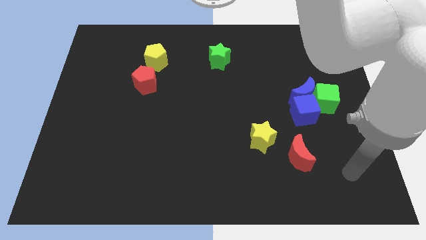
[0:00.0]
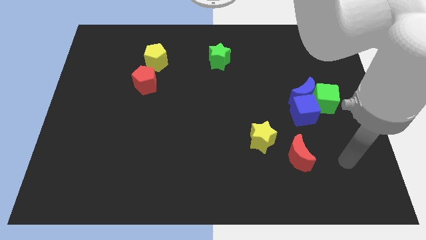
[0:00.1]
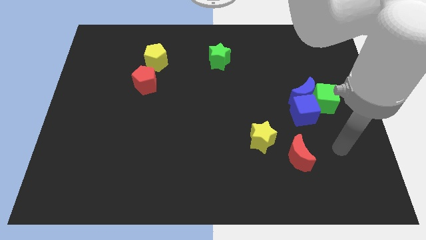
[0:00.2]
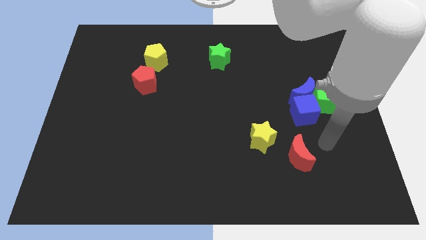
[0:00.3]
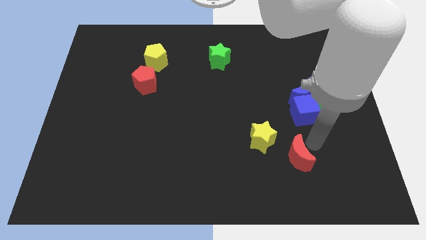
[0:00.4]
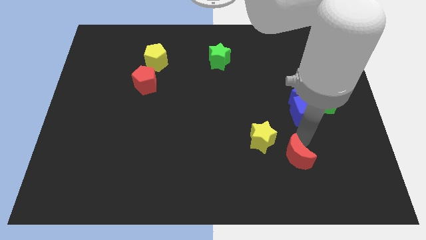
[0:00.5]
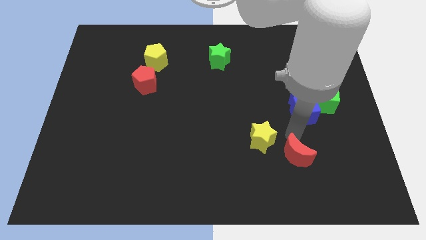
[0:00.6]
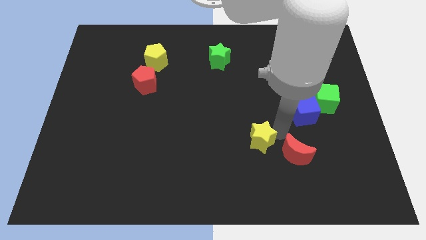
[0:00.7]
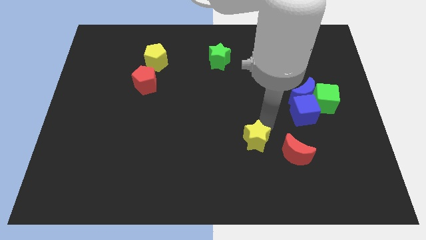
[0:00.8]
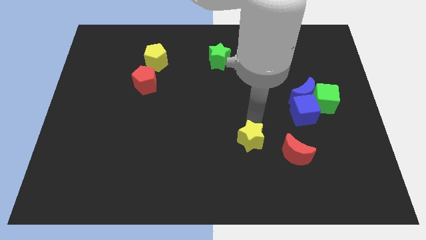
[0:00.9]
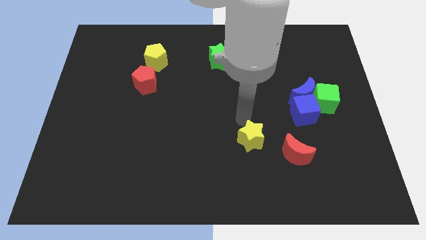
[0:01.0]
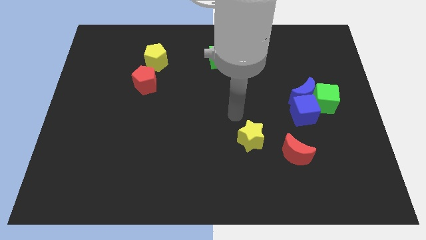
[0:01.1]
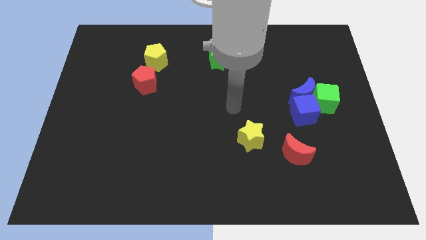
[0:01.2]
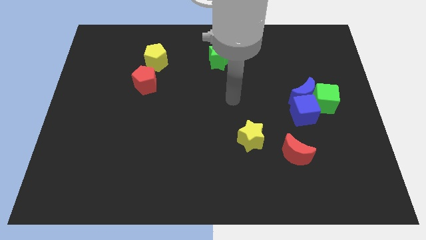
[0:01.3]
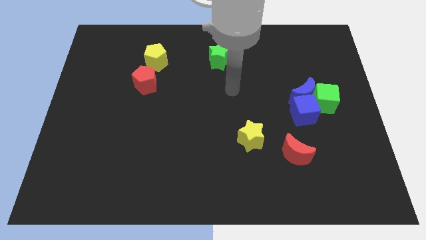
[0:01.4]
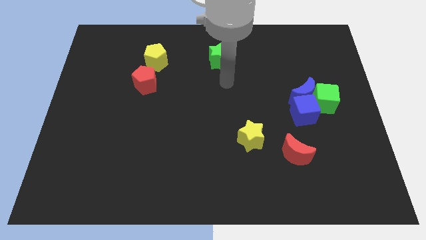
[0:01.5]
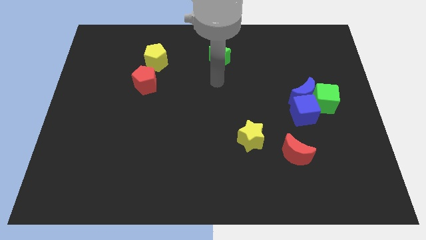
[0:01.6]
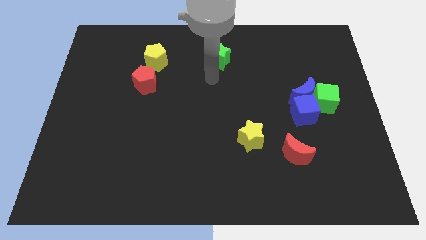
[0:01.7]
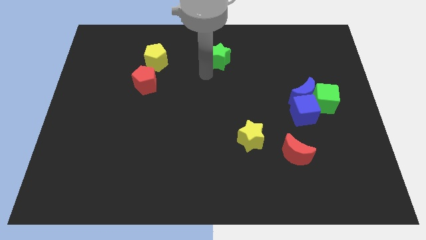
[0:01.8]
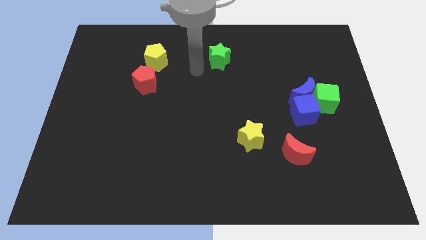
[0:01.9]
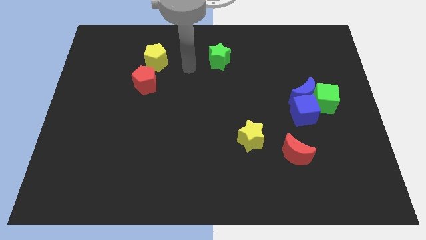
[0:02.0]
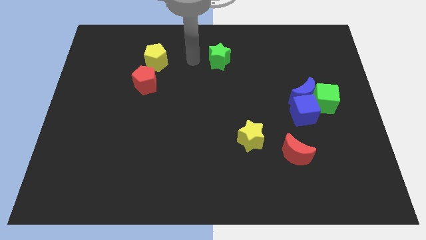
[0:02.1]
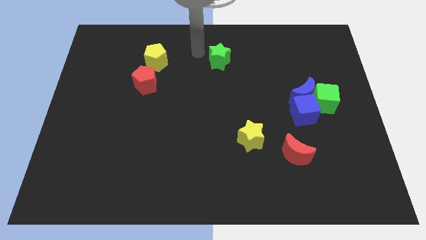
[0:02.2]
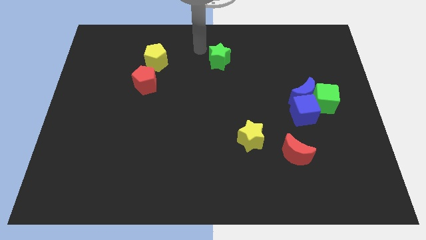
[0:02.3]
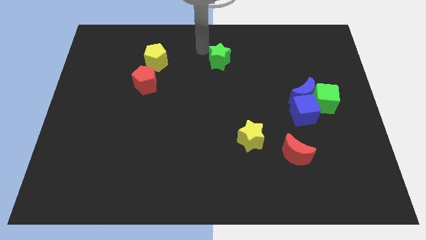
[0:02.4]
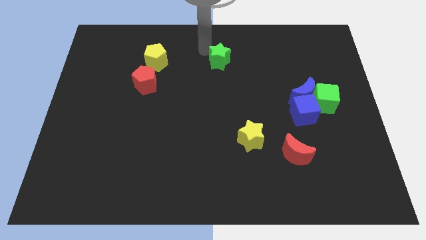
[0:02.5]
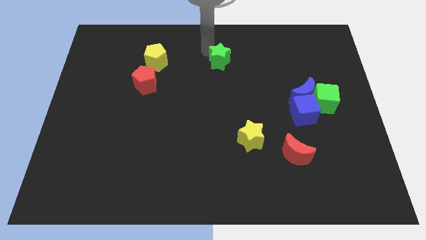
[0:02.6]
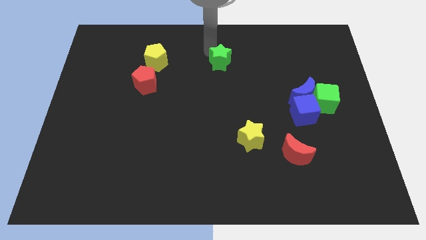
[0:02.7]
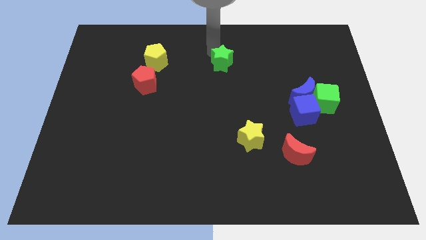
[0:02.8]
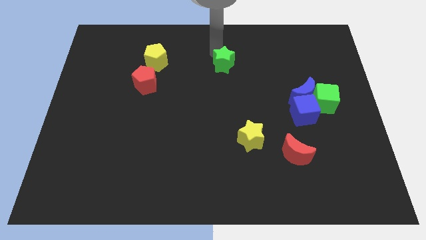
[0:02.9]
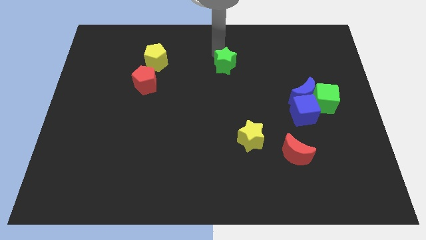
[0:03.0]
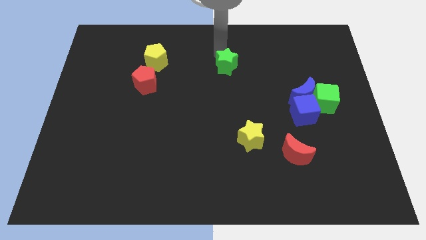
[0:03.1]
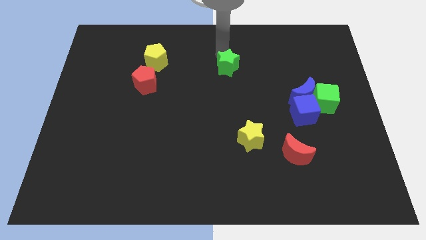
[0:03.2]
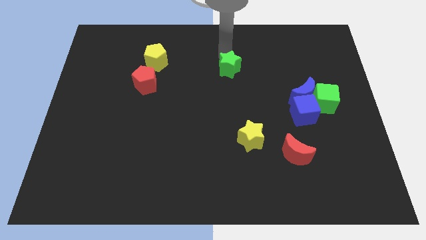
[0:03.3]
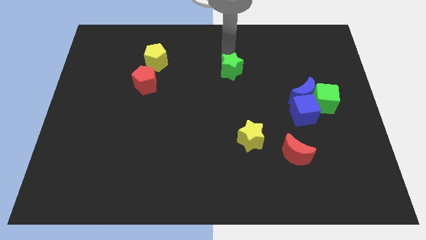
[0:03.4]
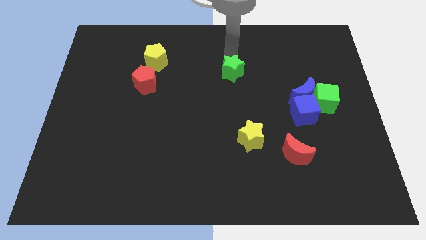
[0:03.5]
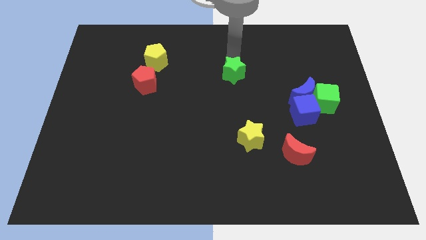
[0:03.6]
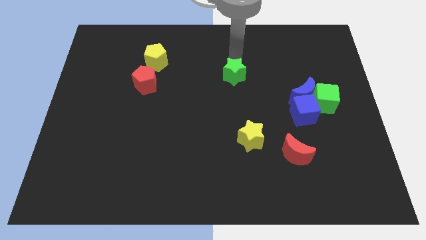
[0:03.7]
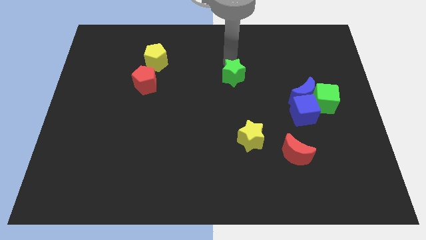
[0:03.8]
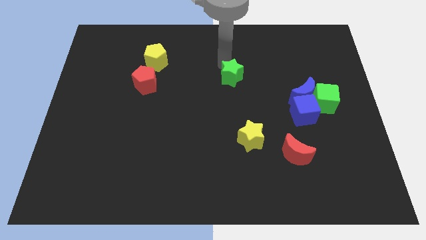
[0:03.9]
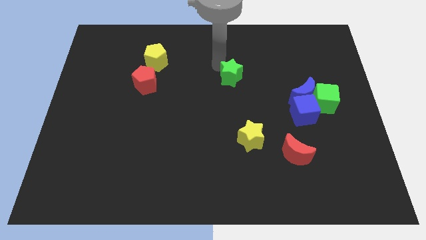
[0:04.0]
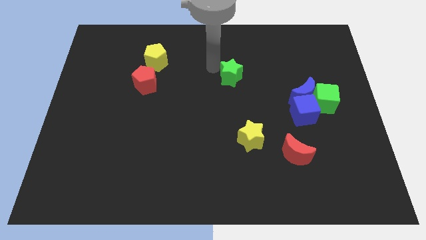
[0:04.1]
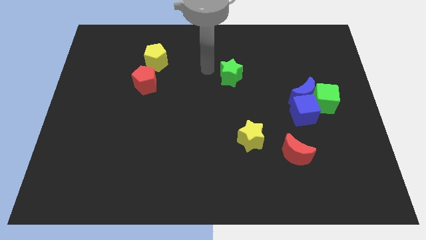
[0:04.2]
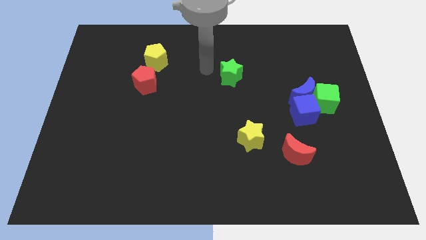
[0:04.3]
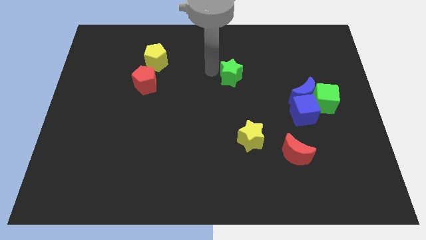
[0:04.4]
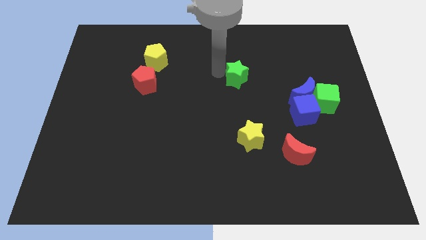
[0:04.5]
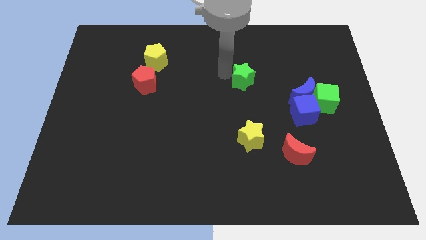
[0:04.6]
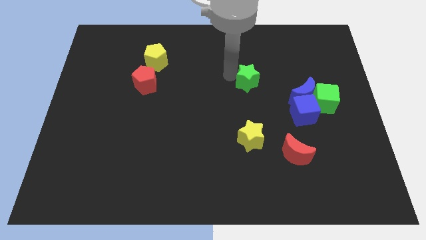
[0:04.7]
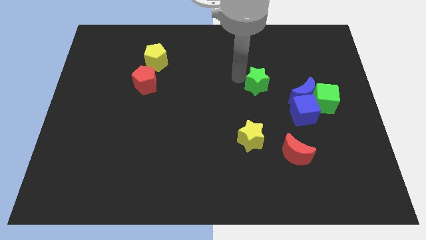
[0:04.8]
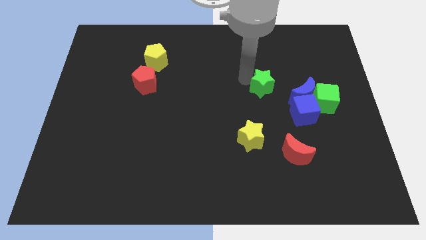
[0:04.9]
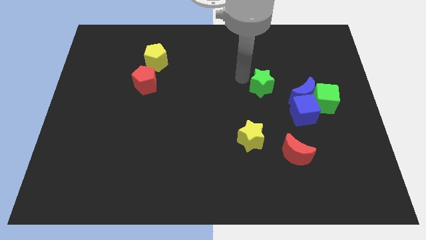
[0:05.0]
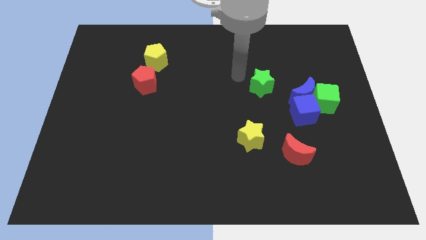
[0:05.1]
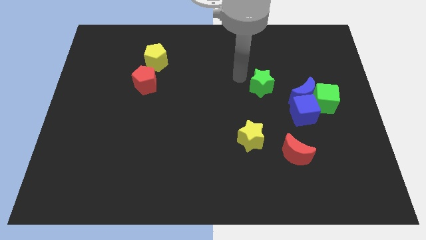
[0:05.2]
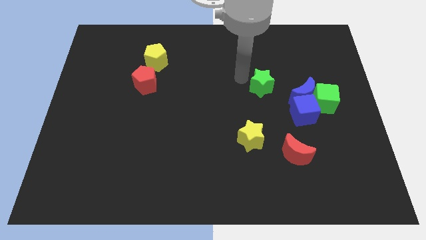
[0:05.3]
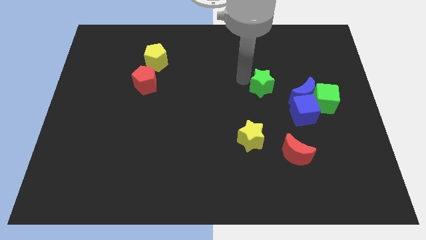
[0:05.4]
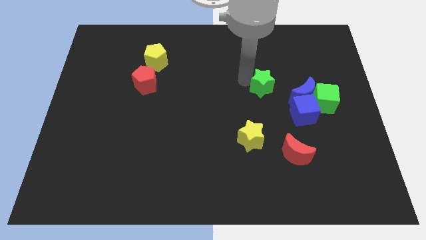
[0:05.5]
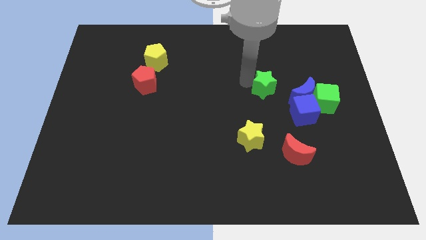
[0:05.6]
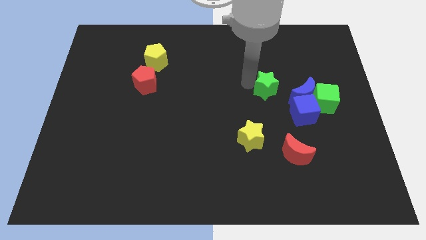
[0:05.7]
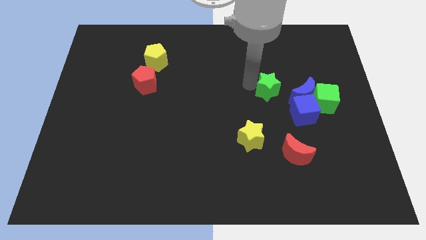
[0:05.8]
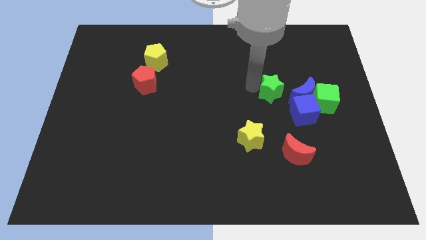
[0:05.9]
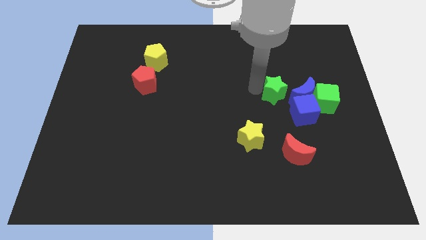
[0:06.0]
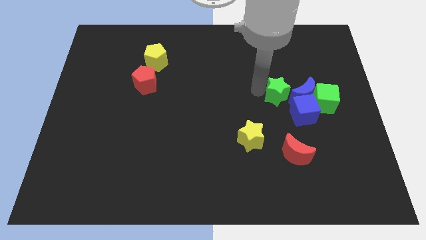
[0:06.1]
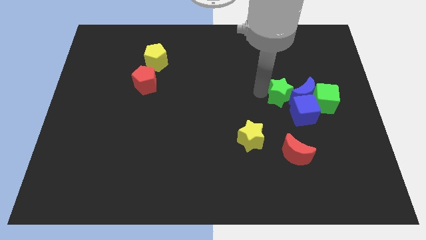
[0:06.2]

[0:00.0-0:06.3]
push the green star next to the blue moon

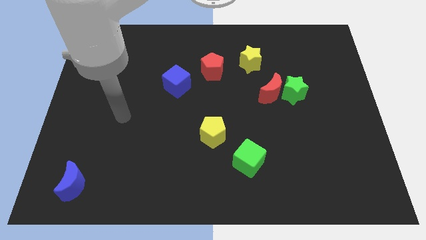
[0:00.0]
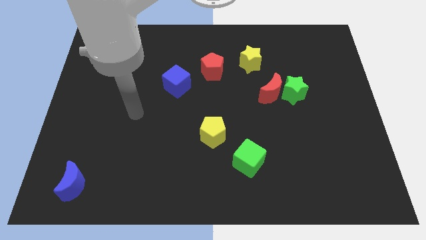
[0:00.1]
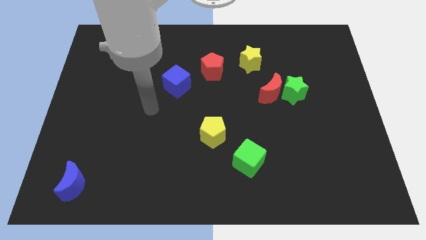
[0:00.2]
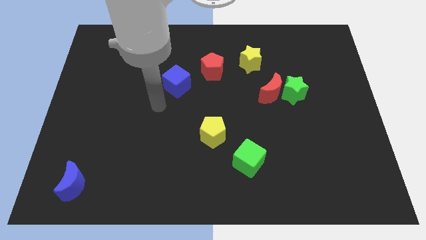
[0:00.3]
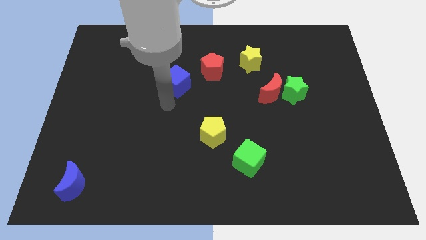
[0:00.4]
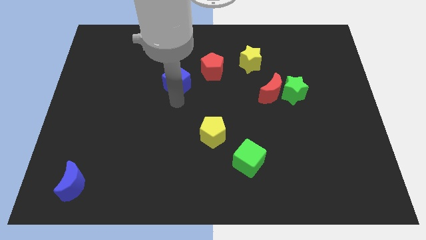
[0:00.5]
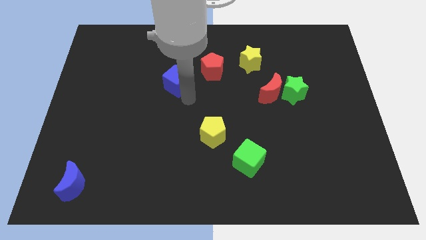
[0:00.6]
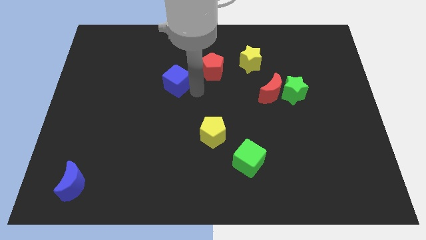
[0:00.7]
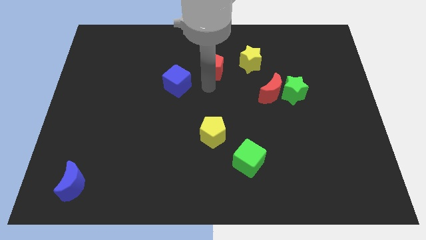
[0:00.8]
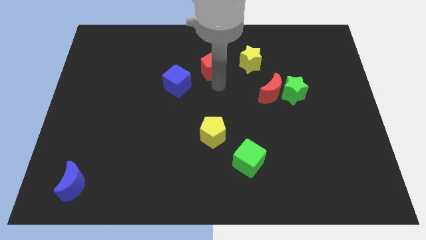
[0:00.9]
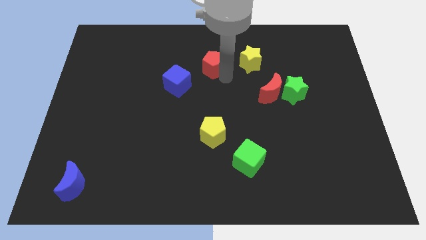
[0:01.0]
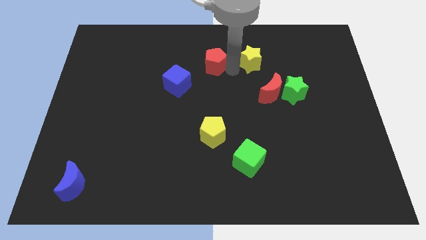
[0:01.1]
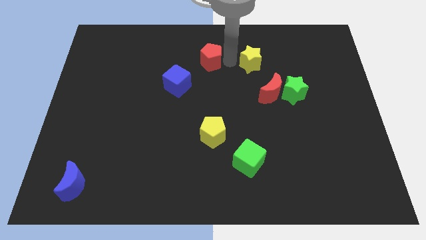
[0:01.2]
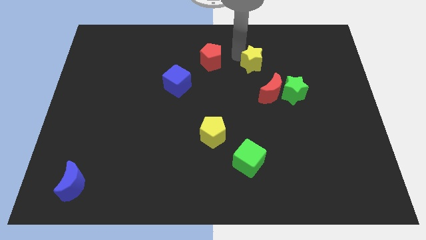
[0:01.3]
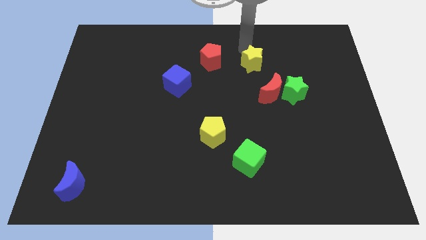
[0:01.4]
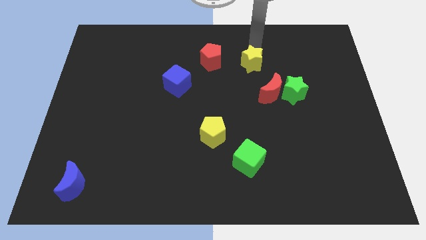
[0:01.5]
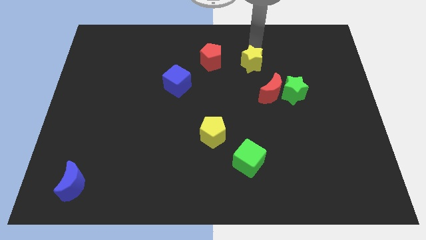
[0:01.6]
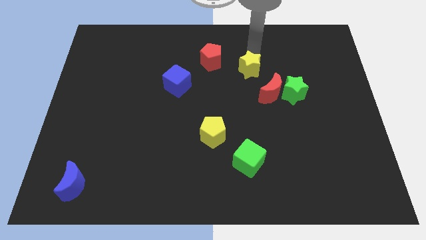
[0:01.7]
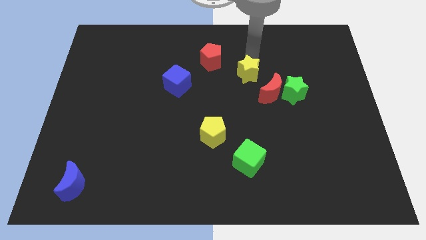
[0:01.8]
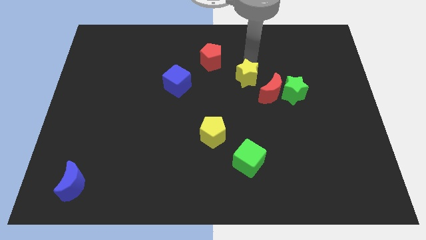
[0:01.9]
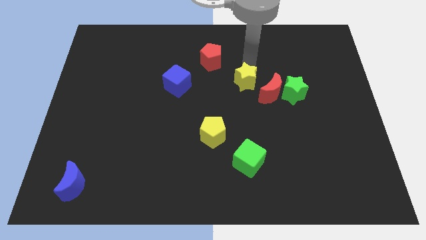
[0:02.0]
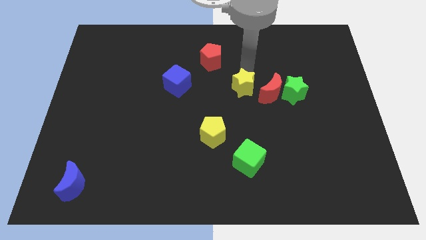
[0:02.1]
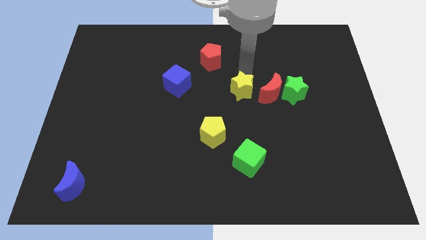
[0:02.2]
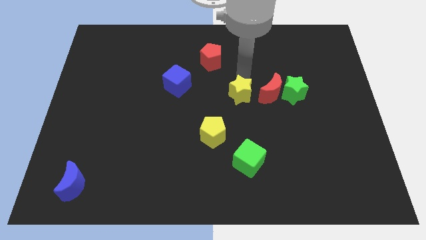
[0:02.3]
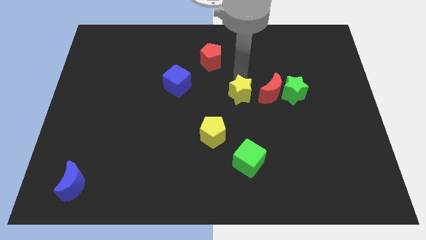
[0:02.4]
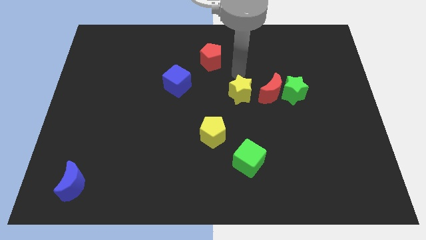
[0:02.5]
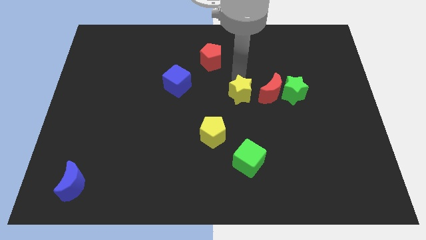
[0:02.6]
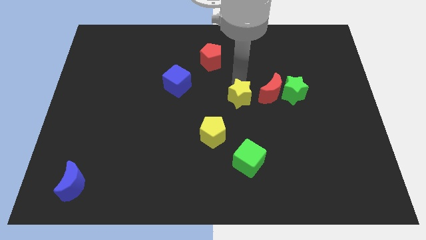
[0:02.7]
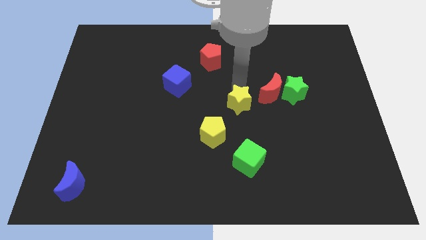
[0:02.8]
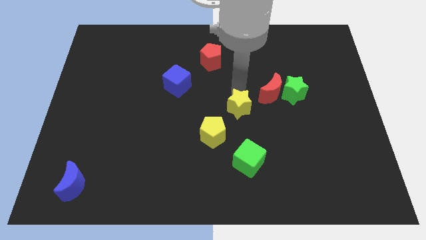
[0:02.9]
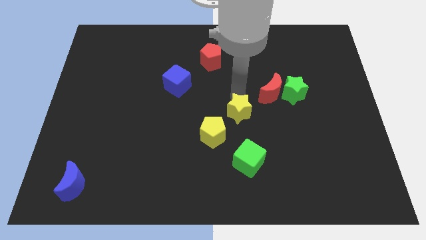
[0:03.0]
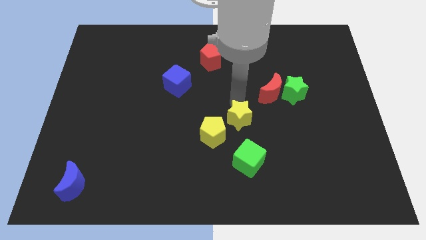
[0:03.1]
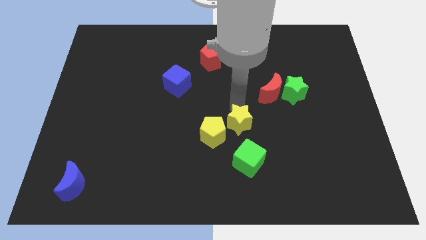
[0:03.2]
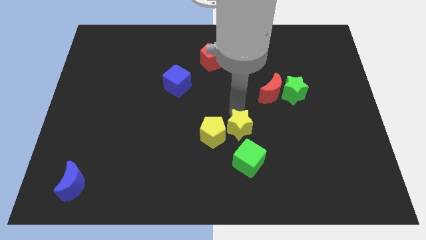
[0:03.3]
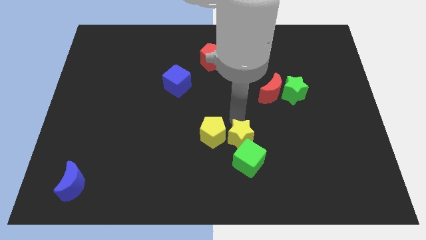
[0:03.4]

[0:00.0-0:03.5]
push the yellow star to the green cube
